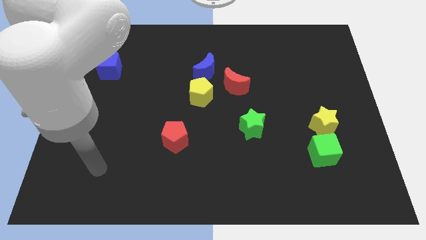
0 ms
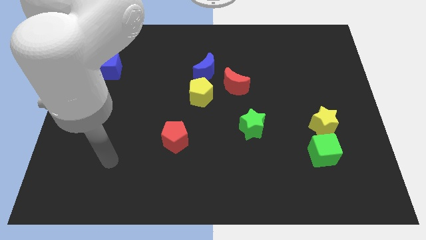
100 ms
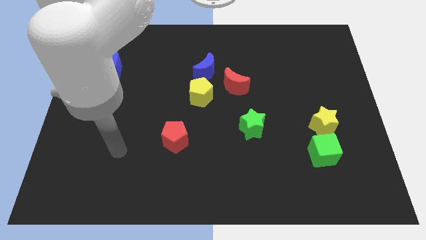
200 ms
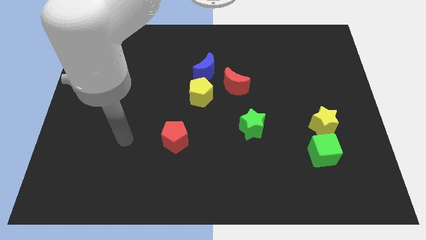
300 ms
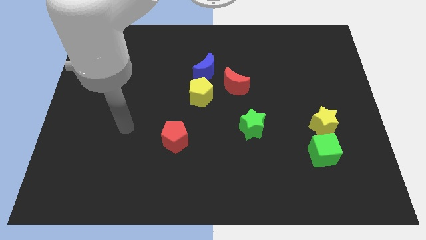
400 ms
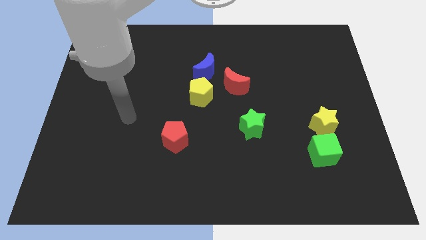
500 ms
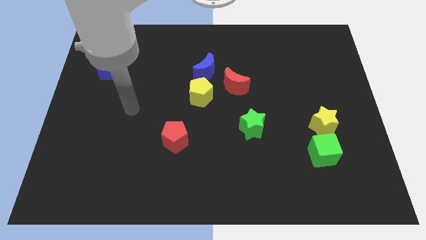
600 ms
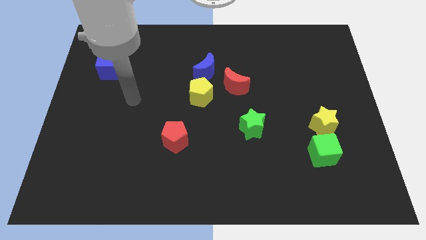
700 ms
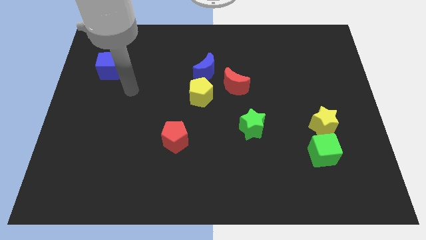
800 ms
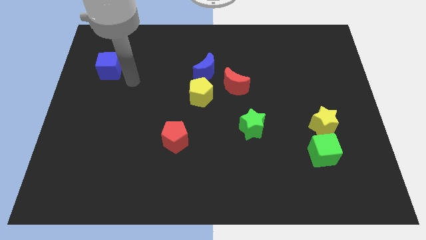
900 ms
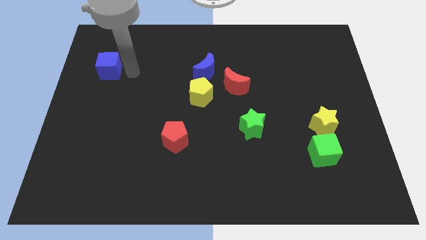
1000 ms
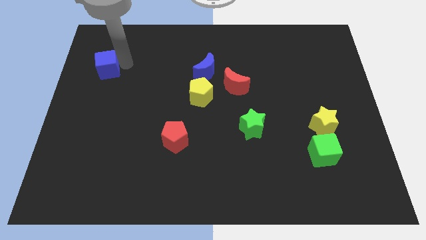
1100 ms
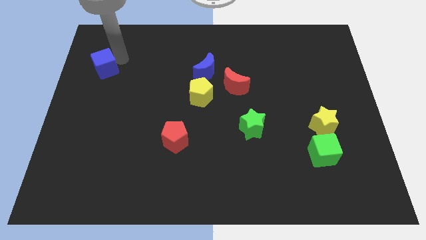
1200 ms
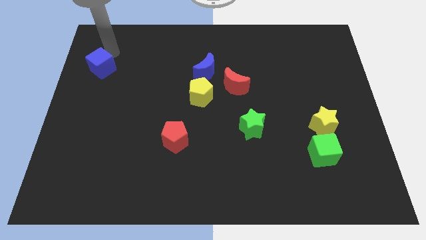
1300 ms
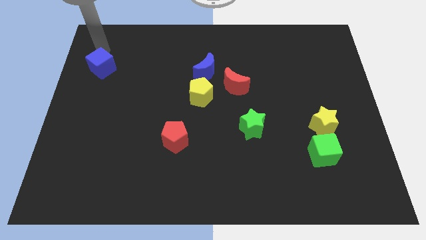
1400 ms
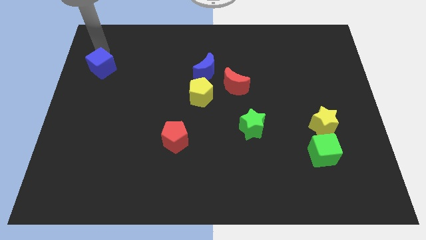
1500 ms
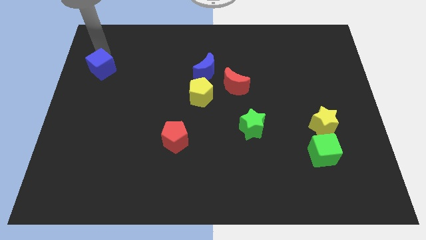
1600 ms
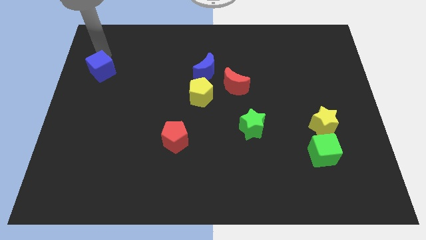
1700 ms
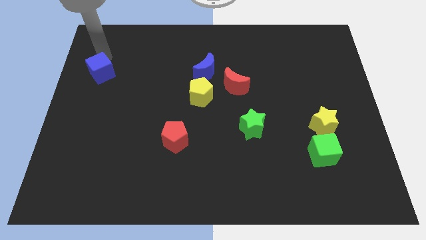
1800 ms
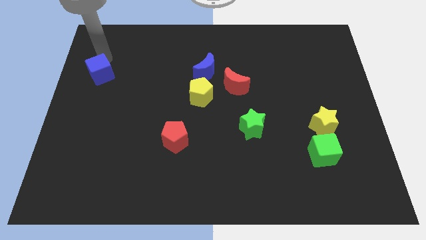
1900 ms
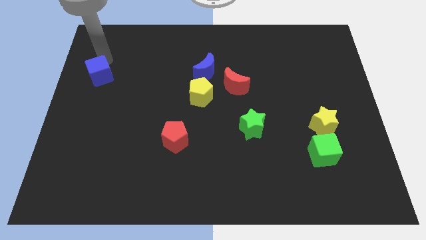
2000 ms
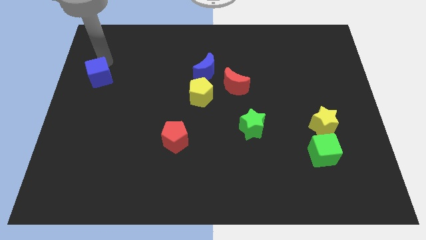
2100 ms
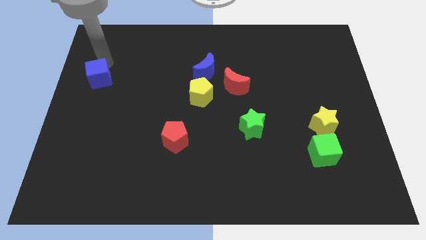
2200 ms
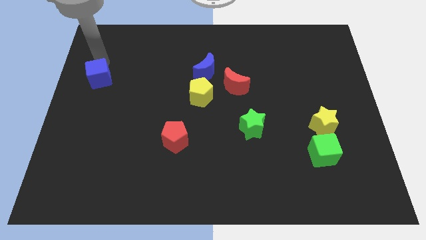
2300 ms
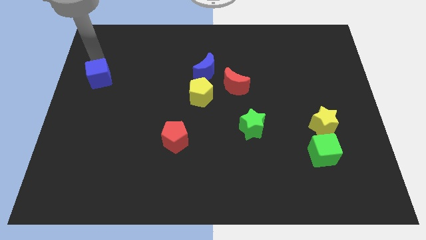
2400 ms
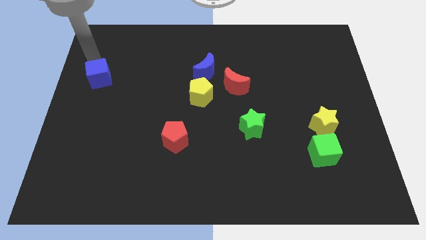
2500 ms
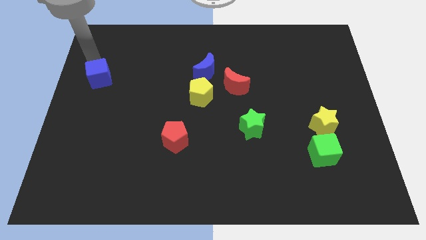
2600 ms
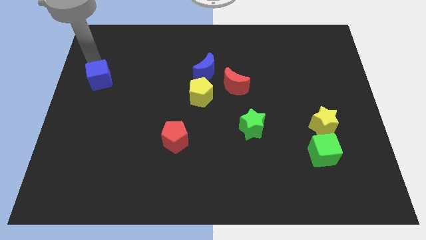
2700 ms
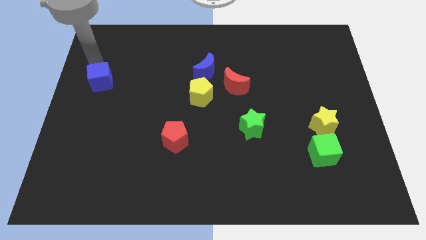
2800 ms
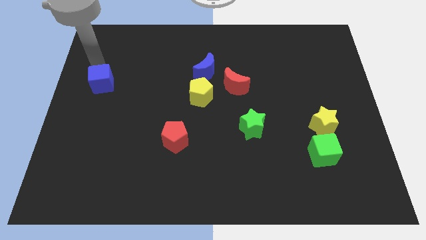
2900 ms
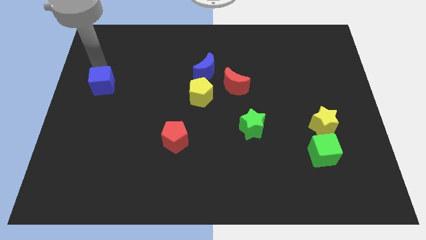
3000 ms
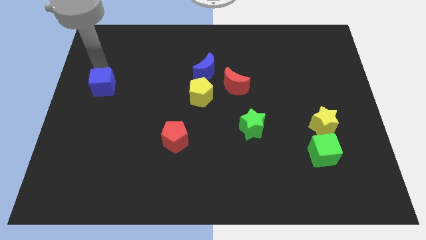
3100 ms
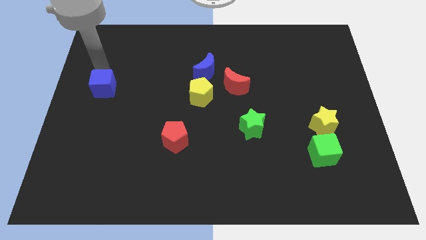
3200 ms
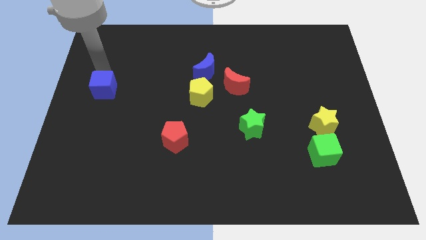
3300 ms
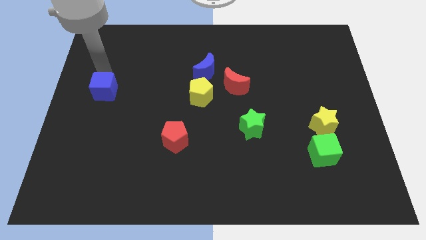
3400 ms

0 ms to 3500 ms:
slightly push the blue cube down

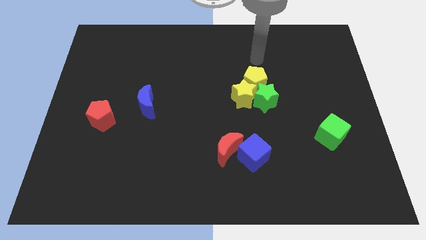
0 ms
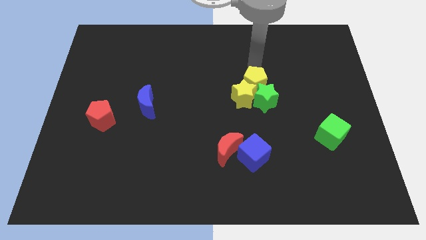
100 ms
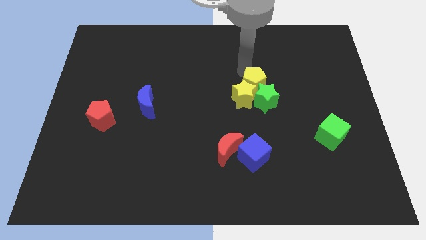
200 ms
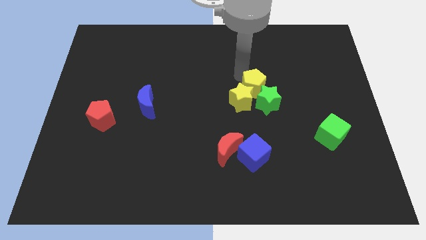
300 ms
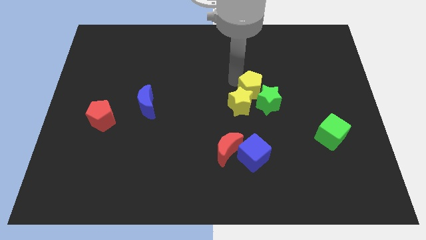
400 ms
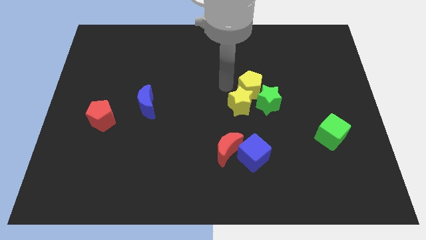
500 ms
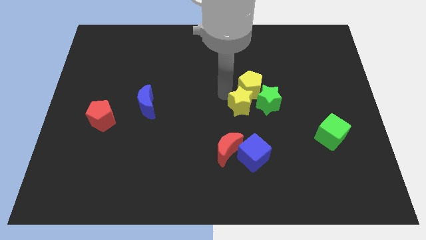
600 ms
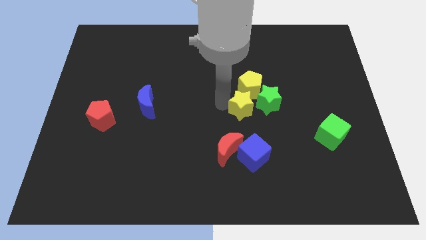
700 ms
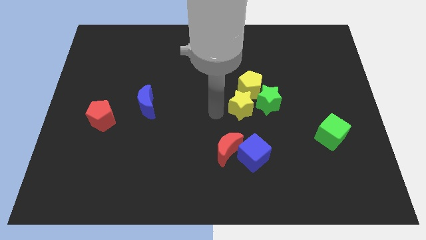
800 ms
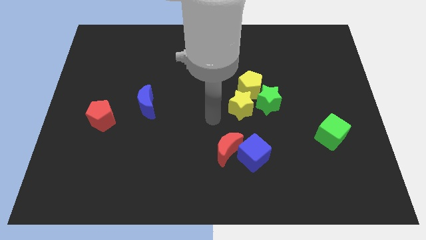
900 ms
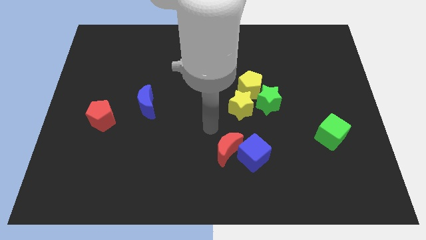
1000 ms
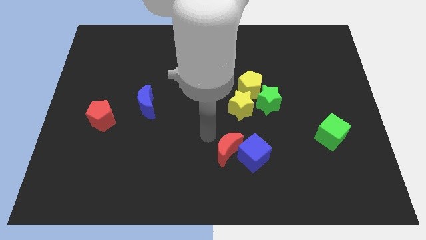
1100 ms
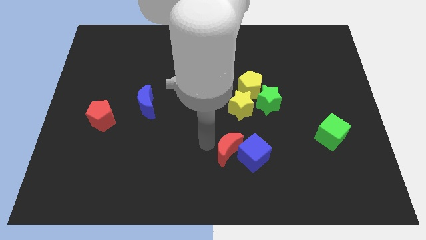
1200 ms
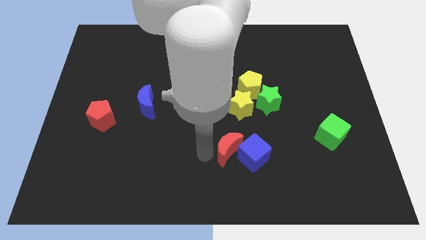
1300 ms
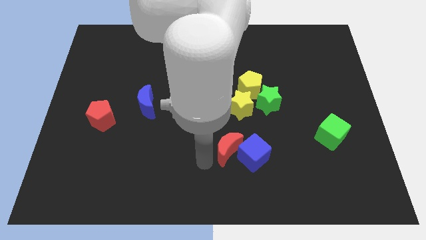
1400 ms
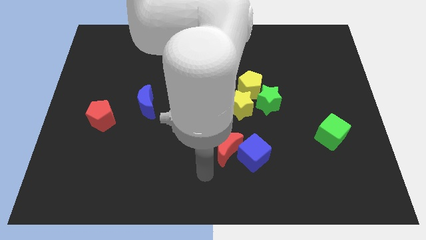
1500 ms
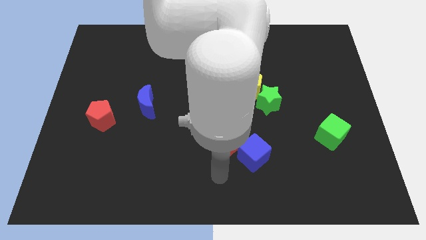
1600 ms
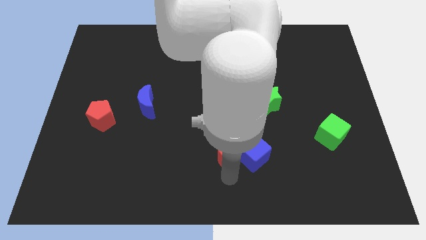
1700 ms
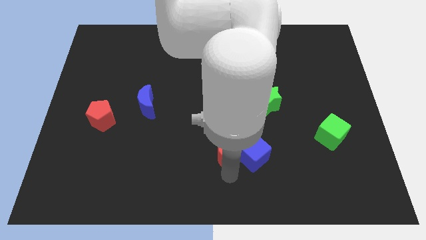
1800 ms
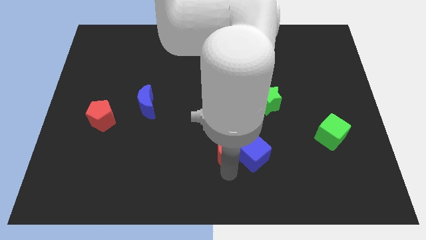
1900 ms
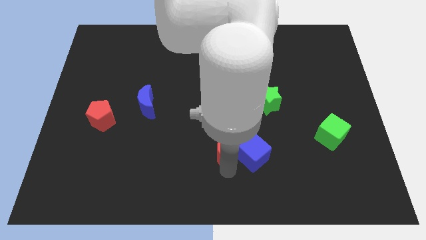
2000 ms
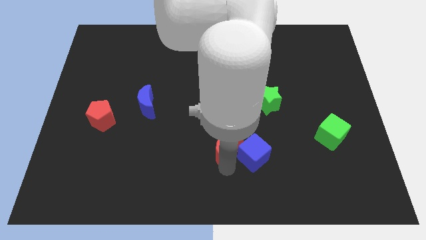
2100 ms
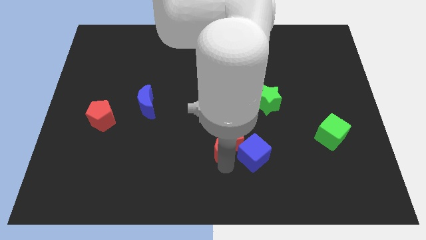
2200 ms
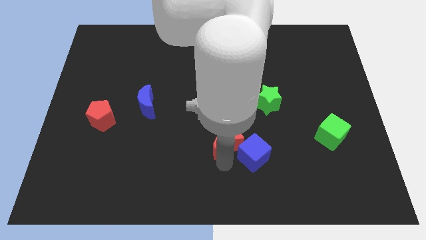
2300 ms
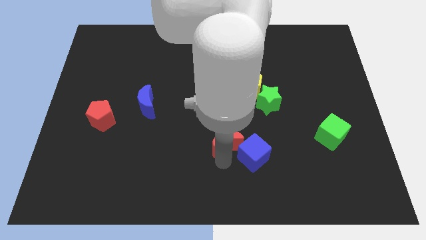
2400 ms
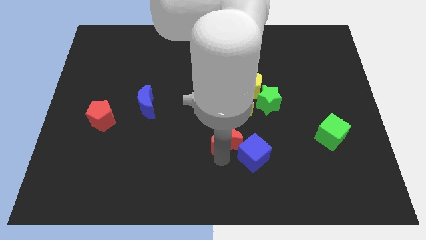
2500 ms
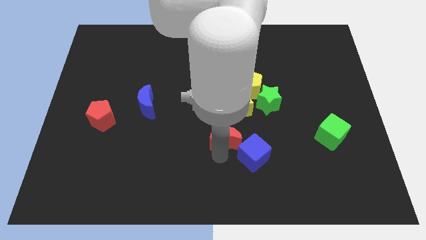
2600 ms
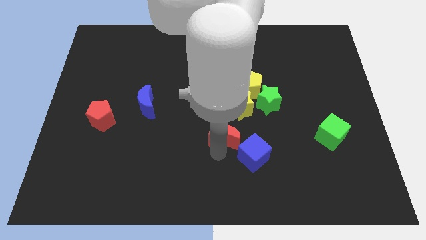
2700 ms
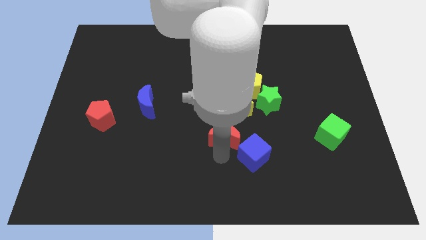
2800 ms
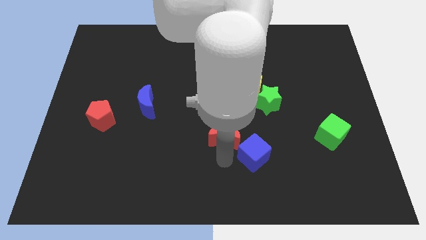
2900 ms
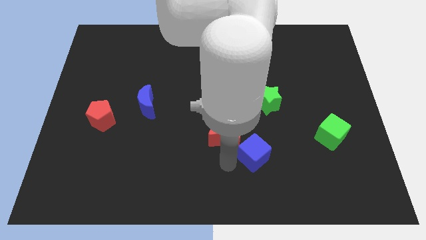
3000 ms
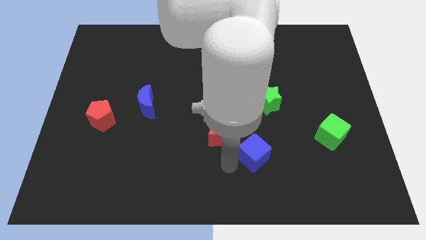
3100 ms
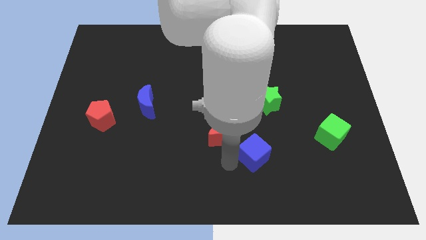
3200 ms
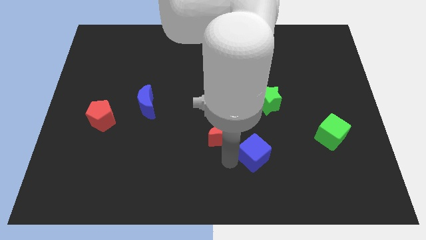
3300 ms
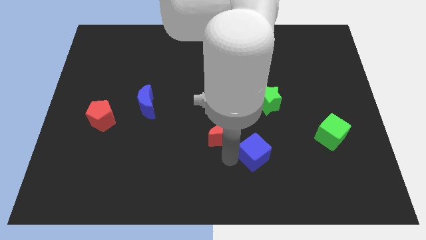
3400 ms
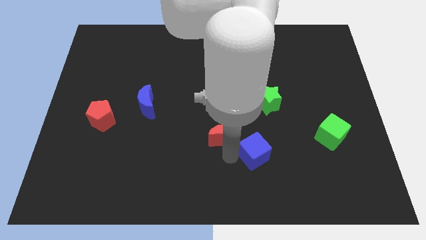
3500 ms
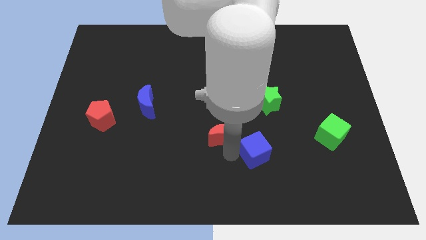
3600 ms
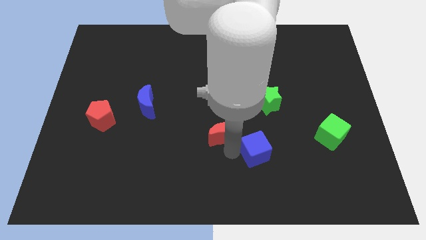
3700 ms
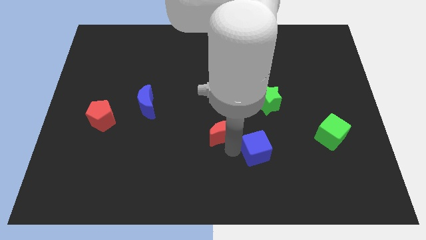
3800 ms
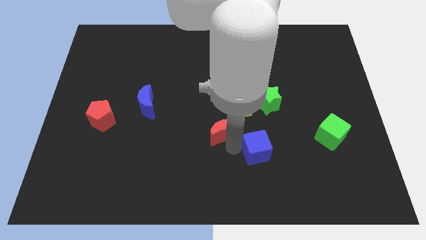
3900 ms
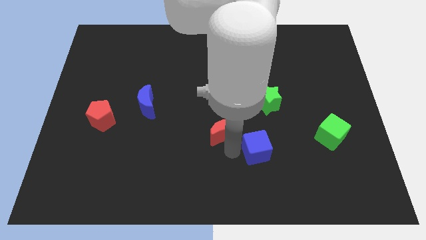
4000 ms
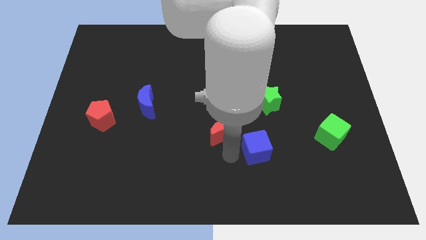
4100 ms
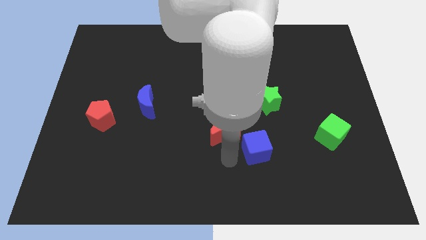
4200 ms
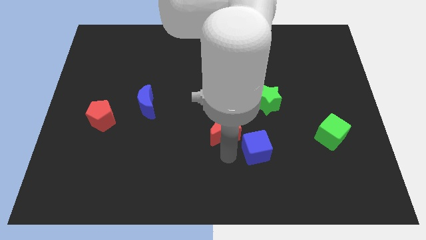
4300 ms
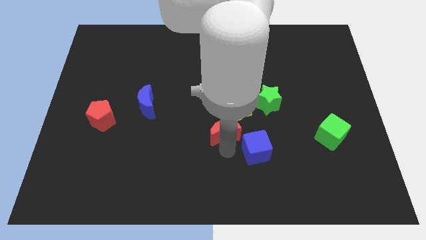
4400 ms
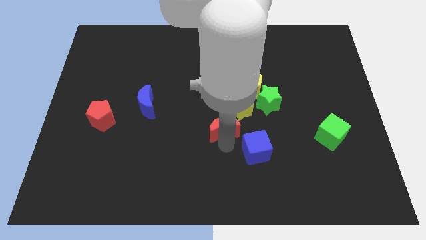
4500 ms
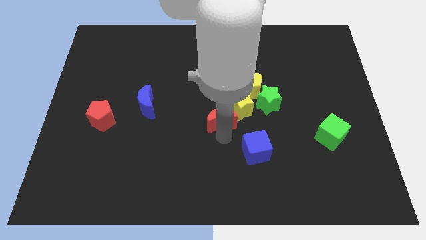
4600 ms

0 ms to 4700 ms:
push the red moon a little bit up
